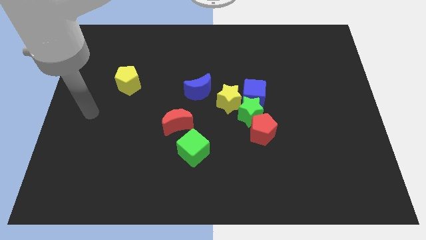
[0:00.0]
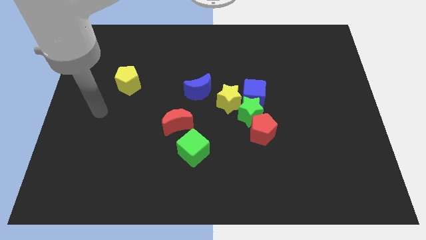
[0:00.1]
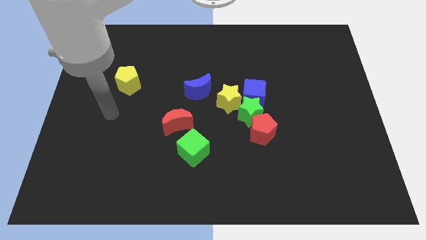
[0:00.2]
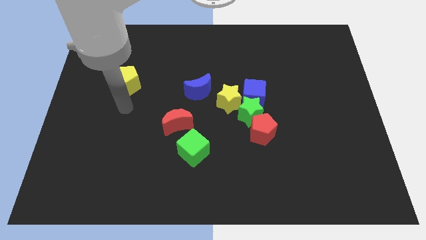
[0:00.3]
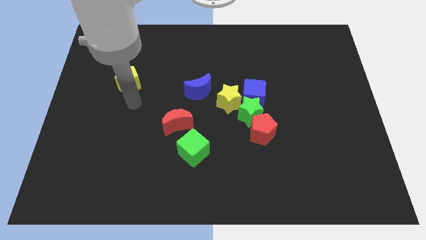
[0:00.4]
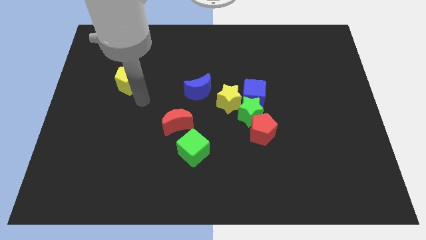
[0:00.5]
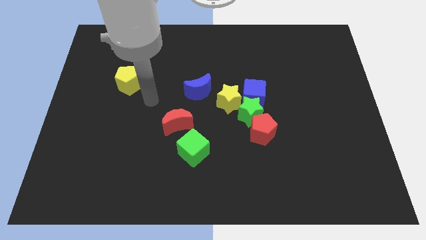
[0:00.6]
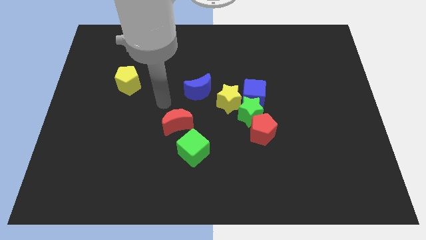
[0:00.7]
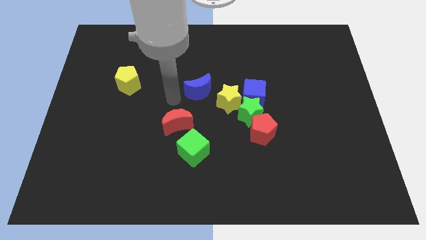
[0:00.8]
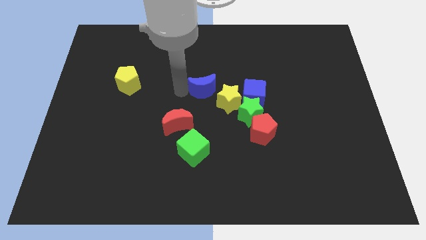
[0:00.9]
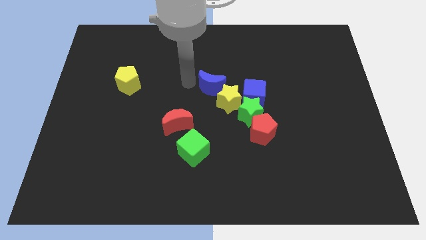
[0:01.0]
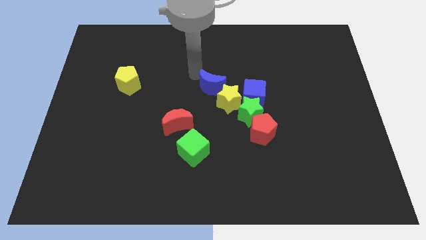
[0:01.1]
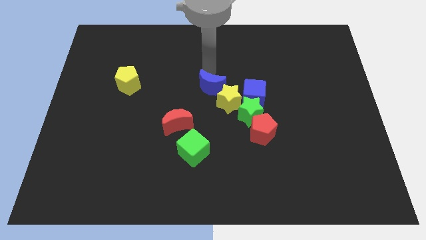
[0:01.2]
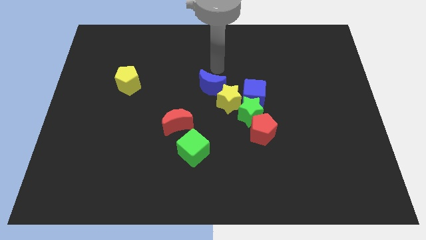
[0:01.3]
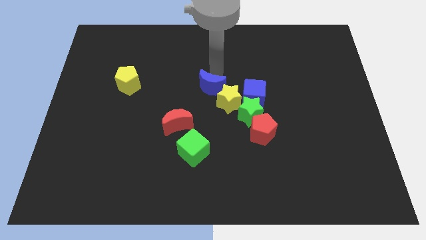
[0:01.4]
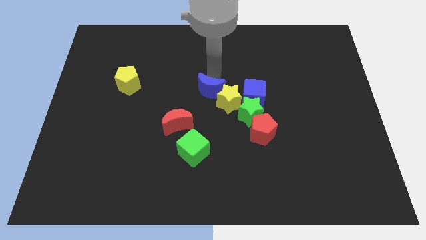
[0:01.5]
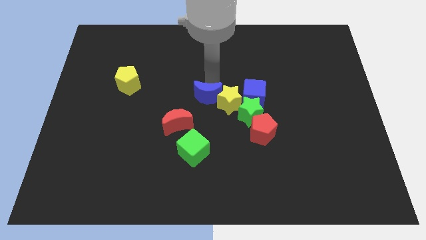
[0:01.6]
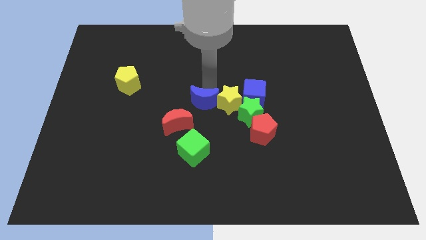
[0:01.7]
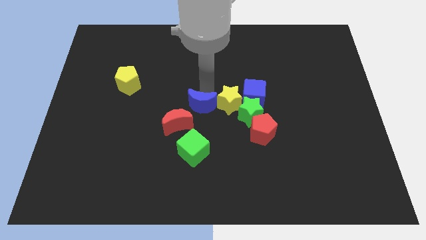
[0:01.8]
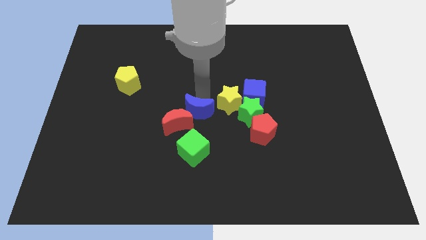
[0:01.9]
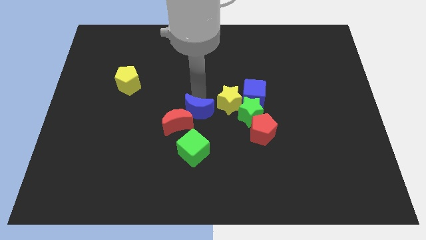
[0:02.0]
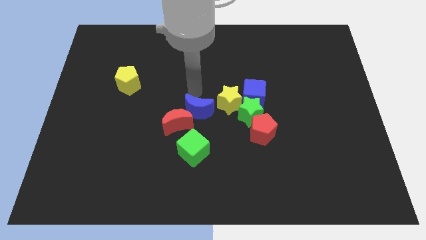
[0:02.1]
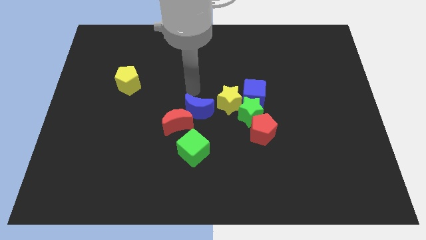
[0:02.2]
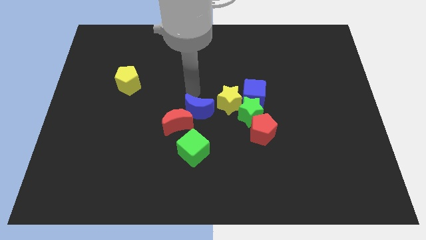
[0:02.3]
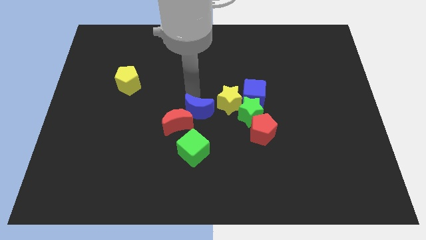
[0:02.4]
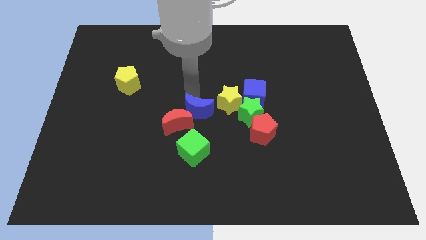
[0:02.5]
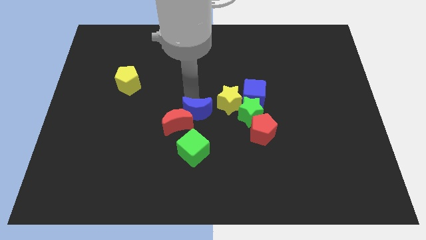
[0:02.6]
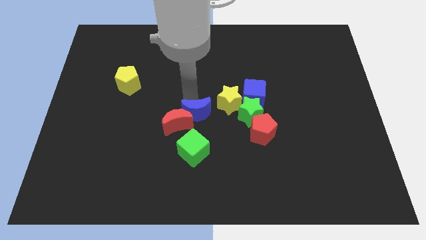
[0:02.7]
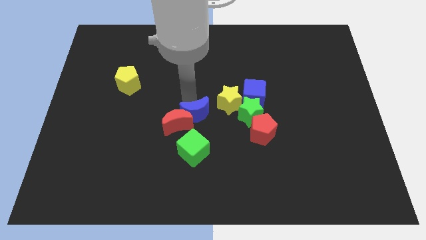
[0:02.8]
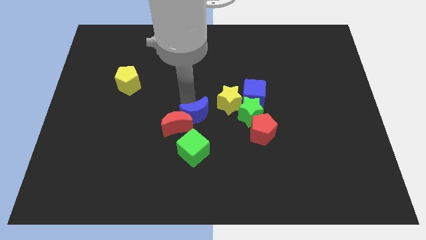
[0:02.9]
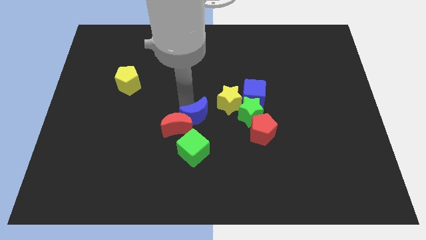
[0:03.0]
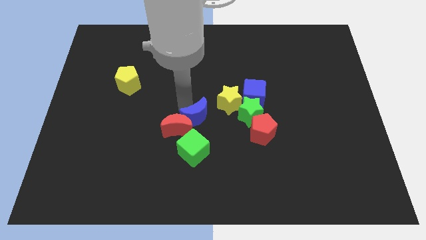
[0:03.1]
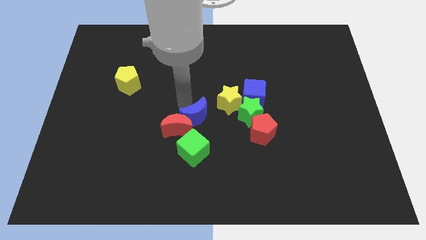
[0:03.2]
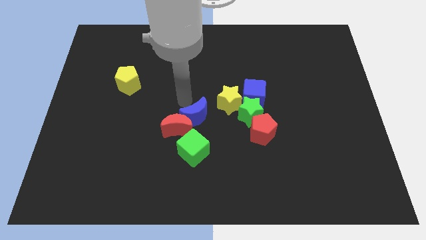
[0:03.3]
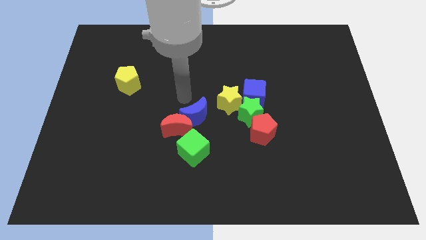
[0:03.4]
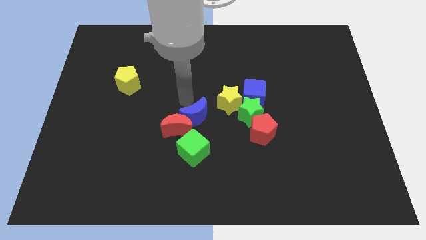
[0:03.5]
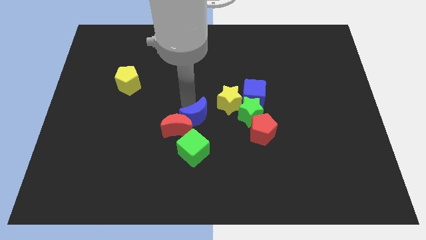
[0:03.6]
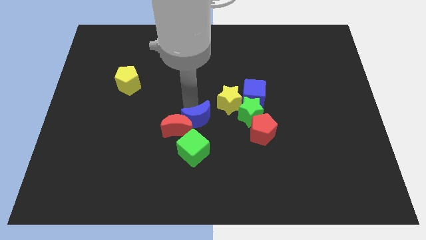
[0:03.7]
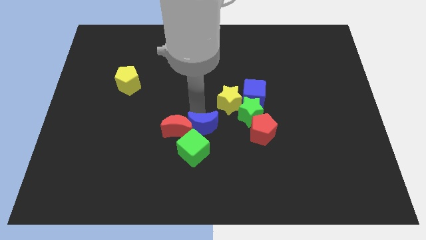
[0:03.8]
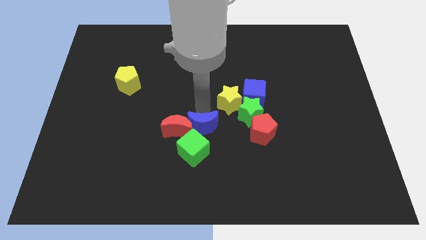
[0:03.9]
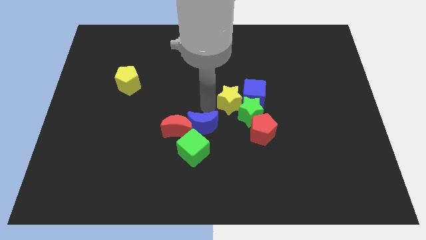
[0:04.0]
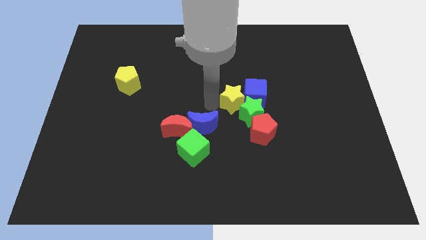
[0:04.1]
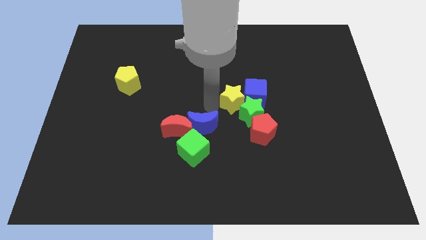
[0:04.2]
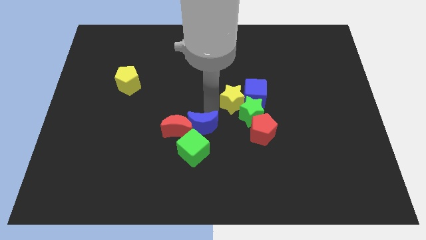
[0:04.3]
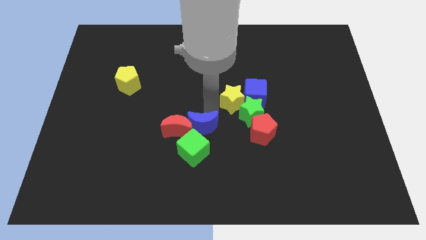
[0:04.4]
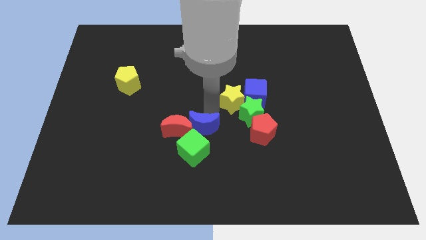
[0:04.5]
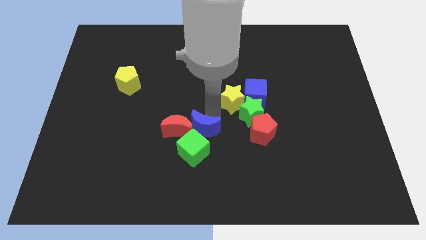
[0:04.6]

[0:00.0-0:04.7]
slide the blue moon close to the green cube

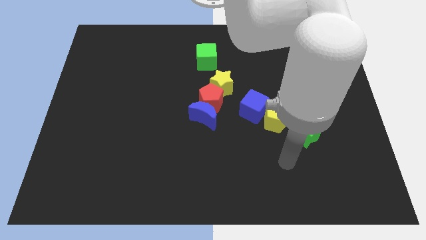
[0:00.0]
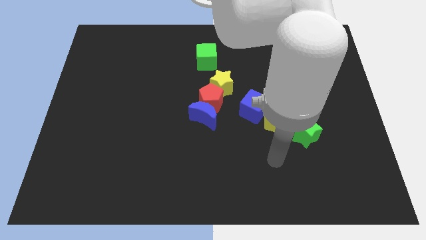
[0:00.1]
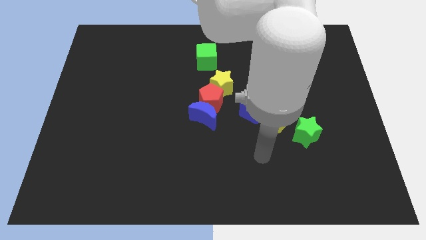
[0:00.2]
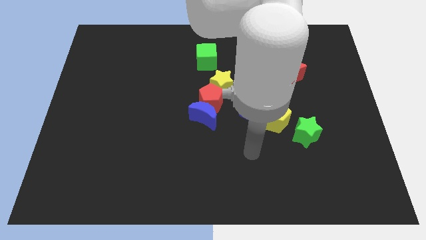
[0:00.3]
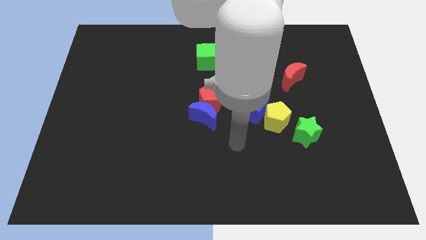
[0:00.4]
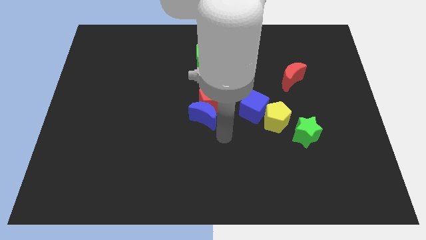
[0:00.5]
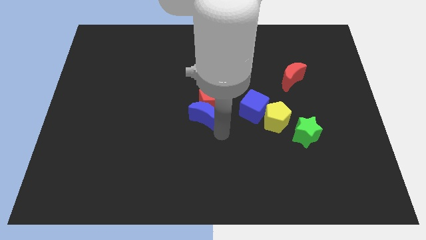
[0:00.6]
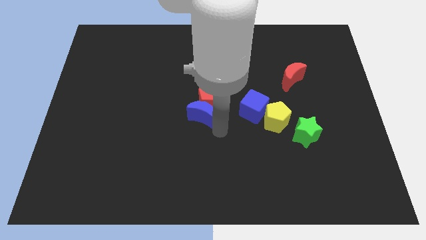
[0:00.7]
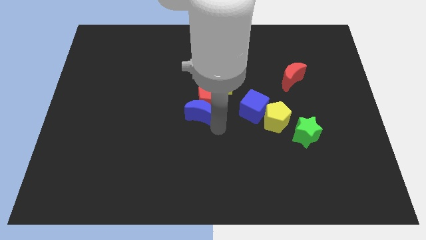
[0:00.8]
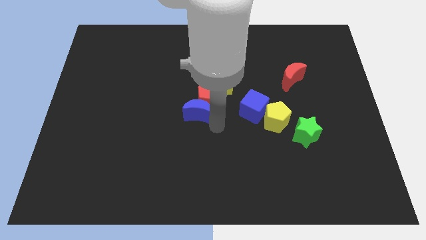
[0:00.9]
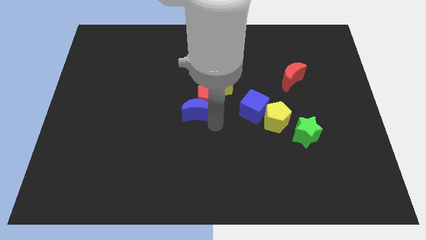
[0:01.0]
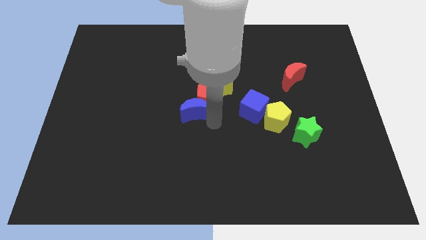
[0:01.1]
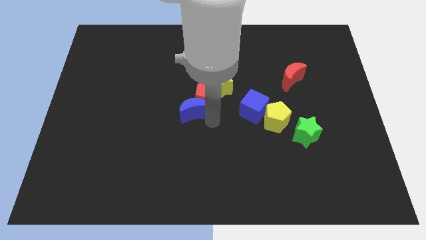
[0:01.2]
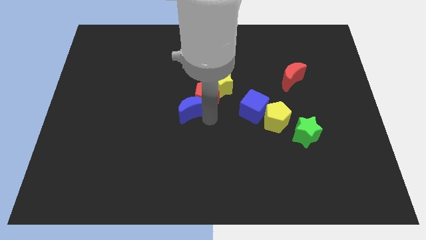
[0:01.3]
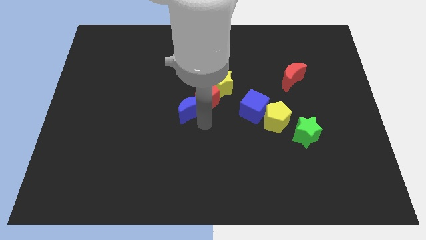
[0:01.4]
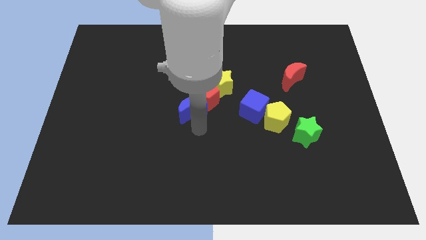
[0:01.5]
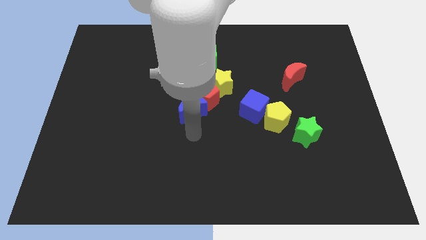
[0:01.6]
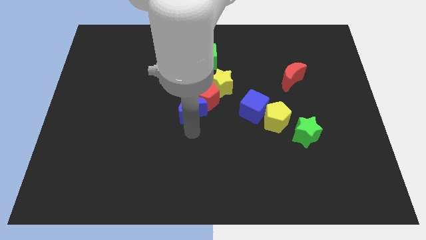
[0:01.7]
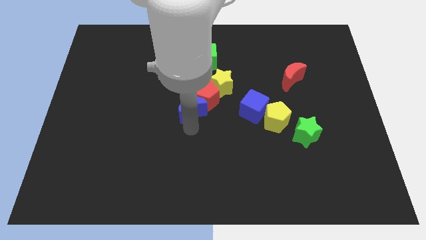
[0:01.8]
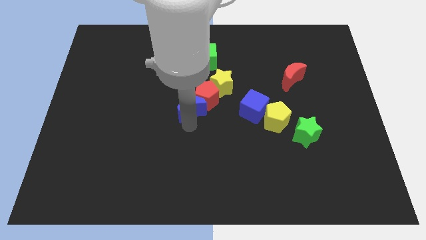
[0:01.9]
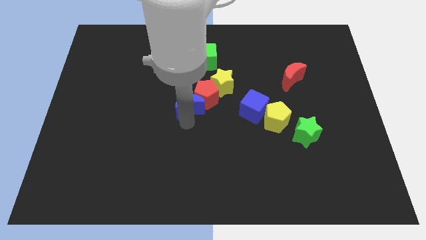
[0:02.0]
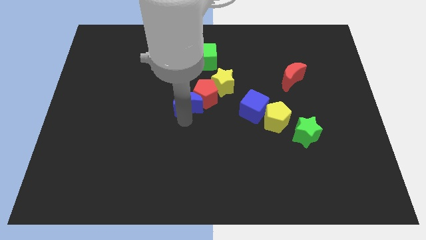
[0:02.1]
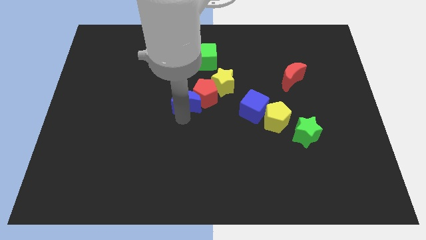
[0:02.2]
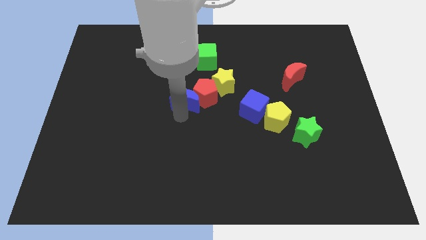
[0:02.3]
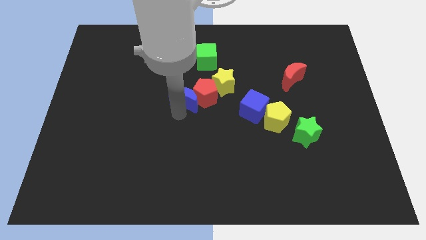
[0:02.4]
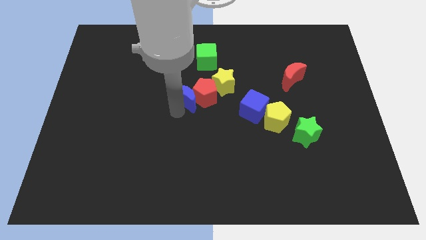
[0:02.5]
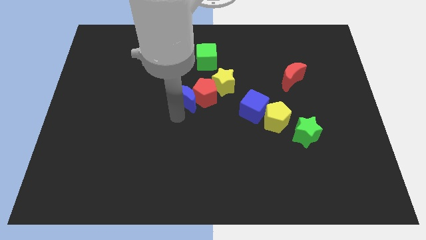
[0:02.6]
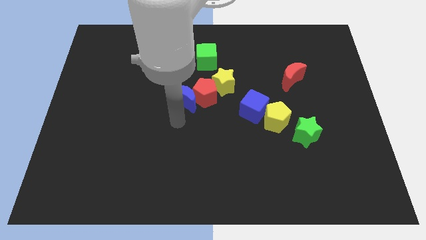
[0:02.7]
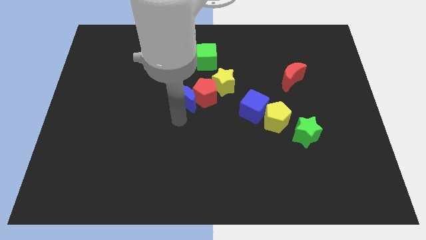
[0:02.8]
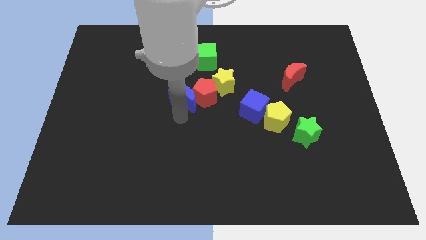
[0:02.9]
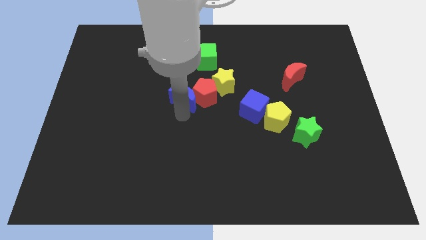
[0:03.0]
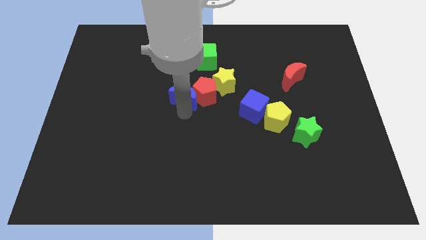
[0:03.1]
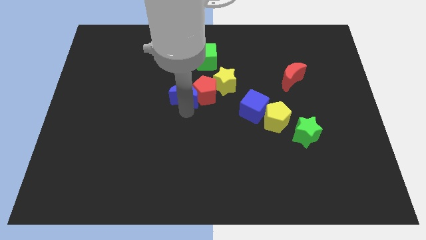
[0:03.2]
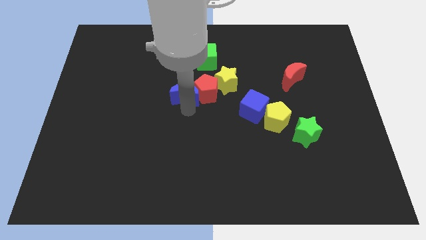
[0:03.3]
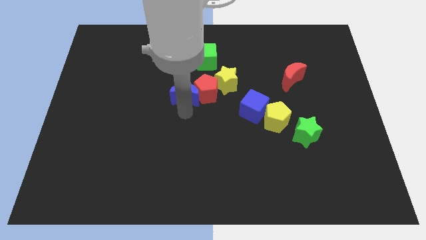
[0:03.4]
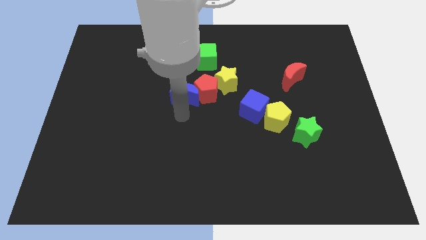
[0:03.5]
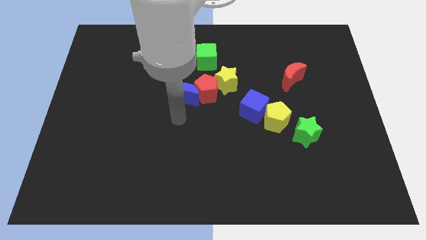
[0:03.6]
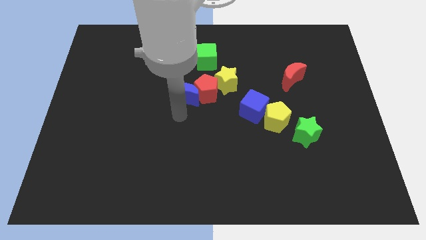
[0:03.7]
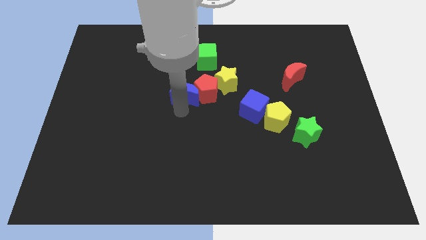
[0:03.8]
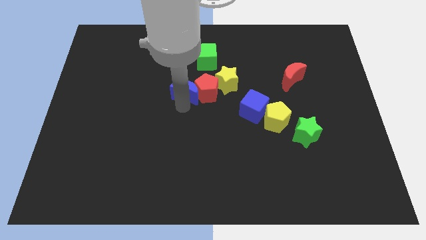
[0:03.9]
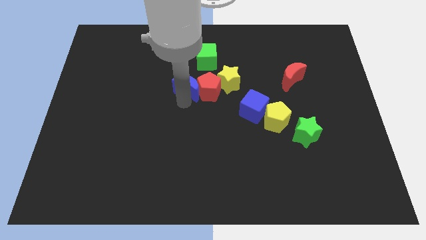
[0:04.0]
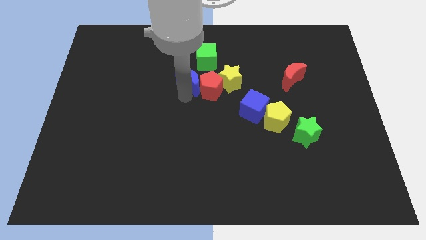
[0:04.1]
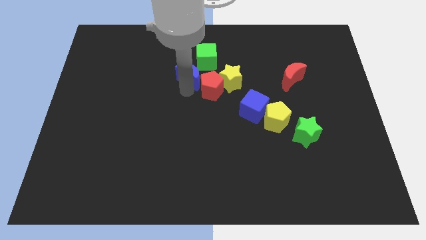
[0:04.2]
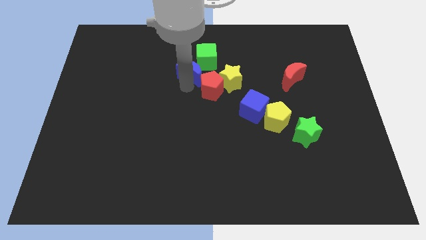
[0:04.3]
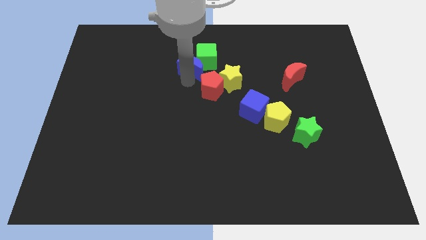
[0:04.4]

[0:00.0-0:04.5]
push the blue moon towards the green cube
